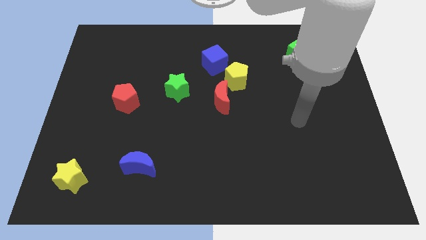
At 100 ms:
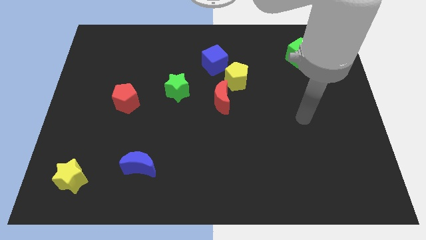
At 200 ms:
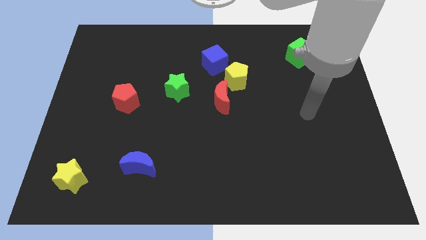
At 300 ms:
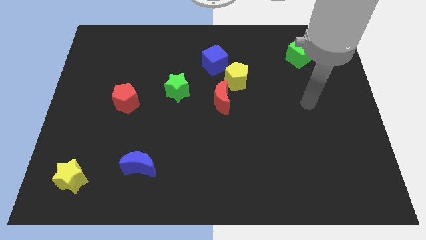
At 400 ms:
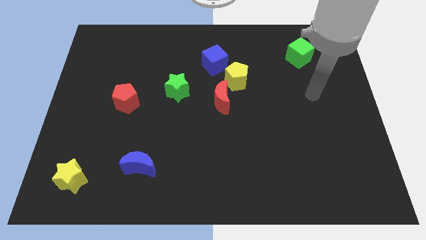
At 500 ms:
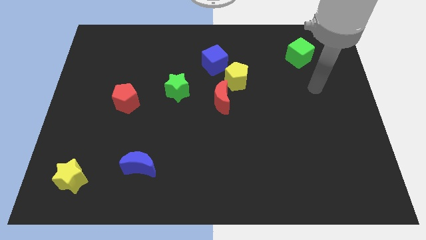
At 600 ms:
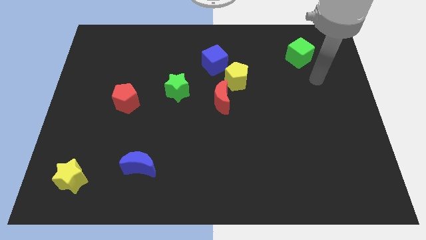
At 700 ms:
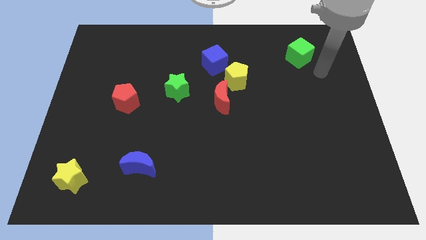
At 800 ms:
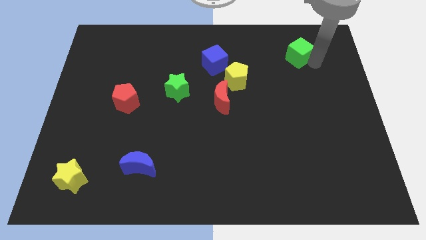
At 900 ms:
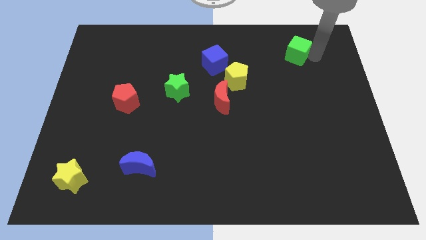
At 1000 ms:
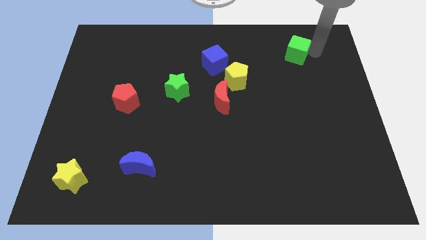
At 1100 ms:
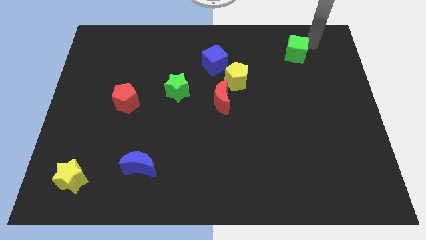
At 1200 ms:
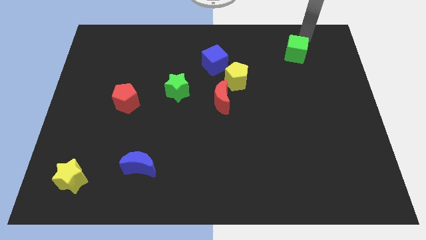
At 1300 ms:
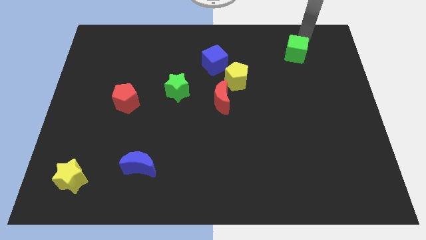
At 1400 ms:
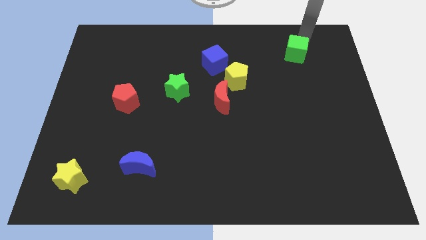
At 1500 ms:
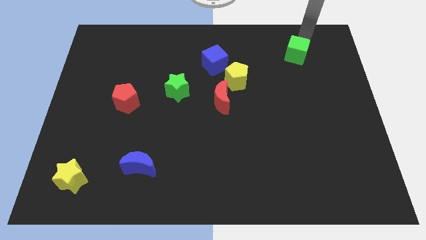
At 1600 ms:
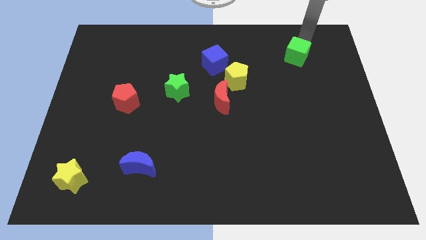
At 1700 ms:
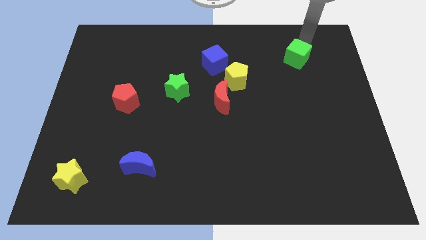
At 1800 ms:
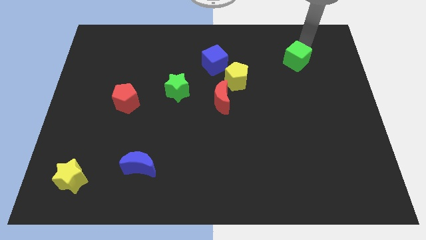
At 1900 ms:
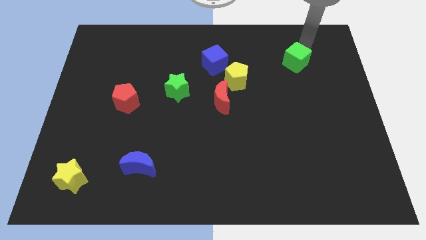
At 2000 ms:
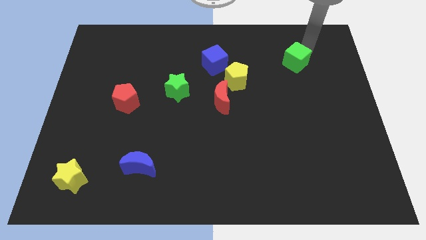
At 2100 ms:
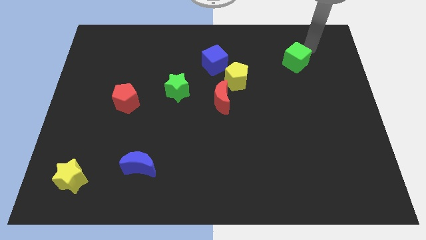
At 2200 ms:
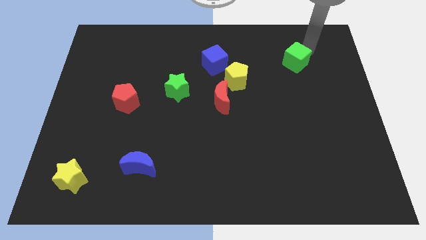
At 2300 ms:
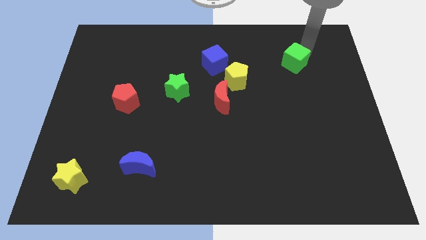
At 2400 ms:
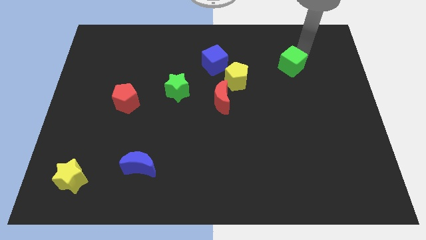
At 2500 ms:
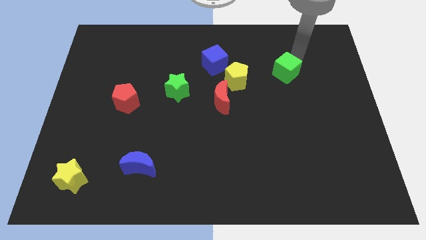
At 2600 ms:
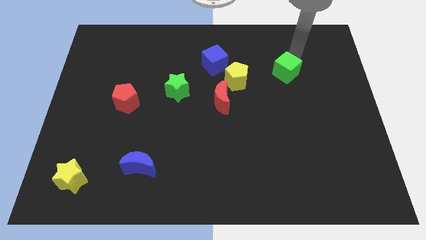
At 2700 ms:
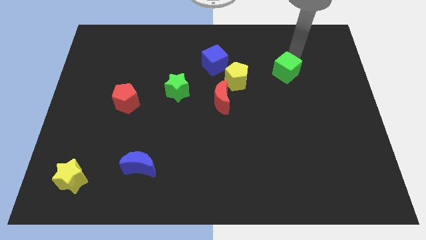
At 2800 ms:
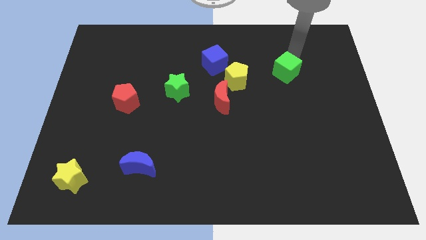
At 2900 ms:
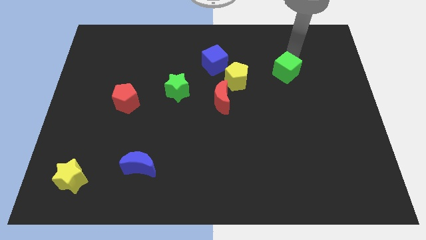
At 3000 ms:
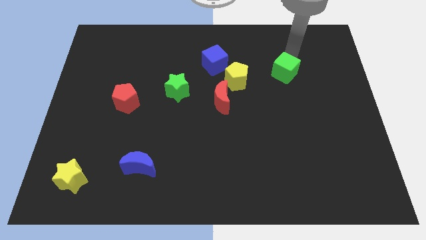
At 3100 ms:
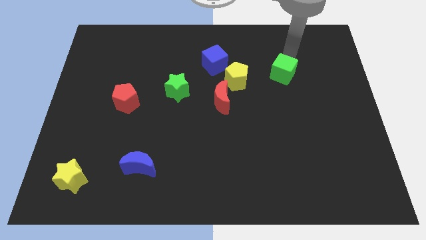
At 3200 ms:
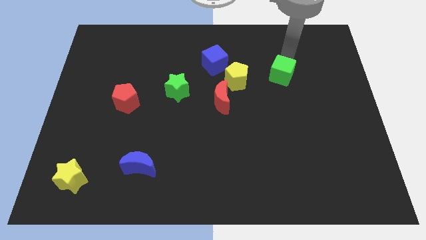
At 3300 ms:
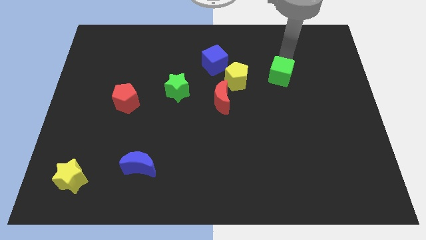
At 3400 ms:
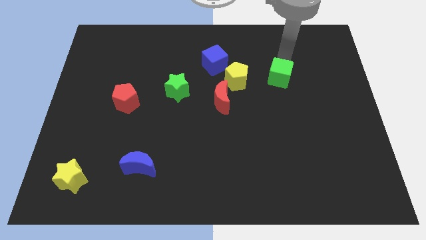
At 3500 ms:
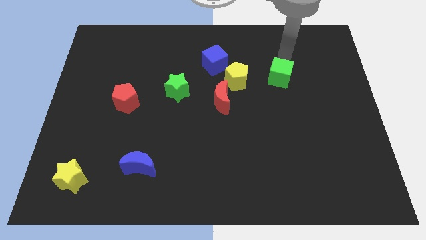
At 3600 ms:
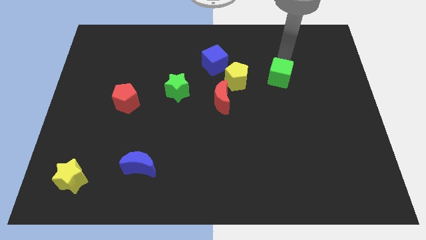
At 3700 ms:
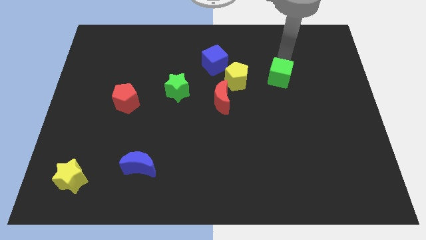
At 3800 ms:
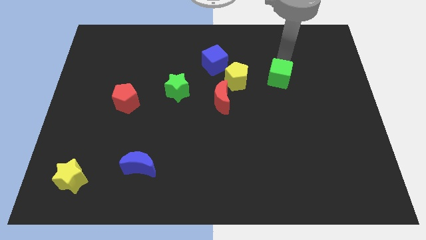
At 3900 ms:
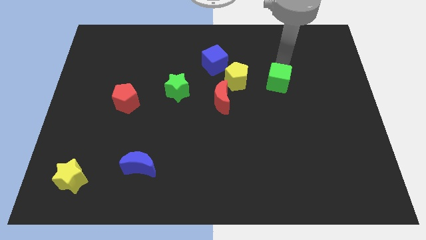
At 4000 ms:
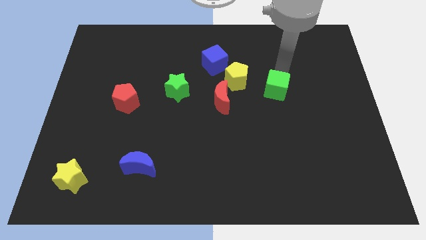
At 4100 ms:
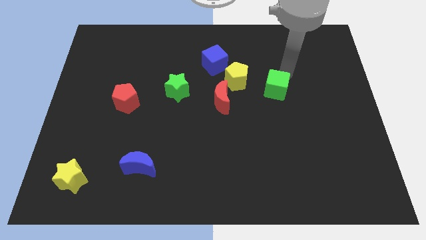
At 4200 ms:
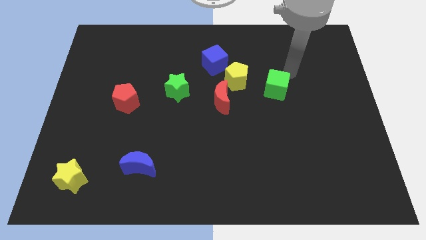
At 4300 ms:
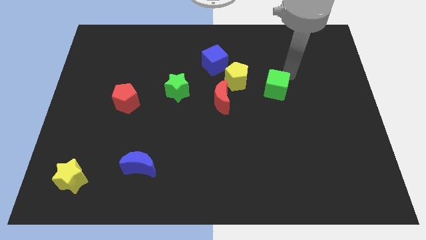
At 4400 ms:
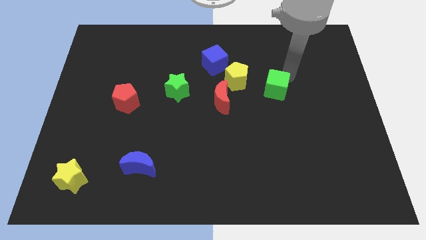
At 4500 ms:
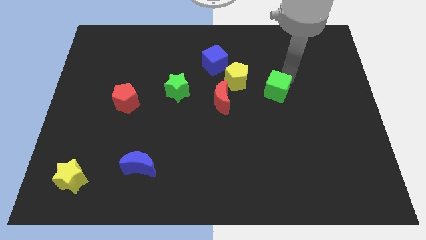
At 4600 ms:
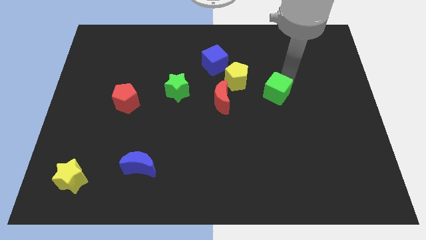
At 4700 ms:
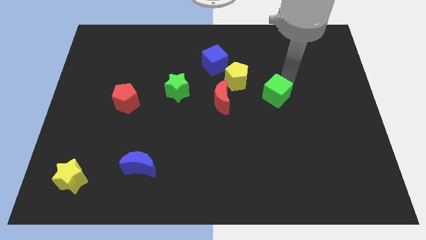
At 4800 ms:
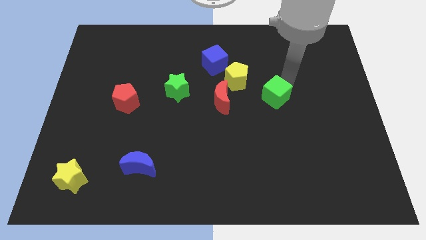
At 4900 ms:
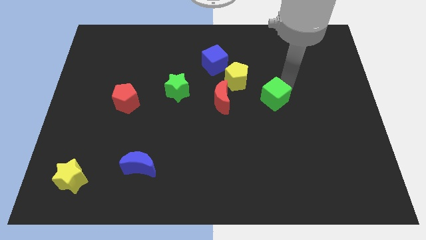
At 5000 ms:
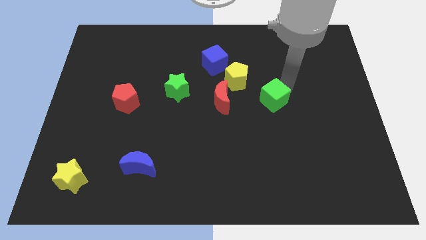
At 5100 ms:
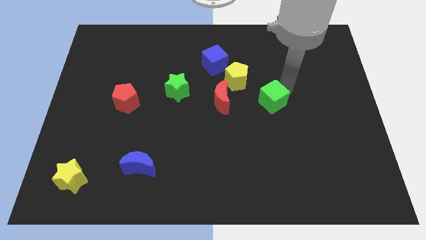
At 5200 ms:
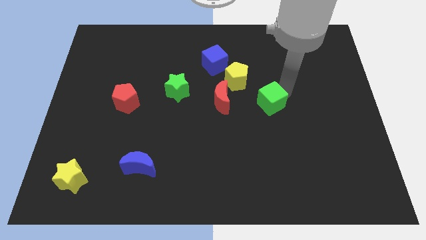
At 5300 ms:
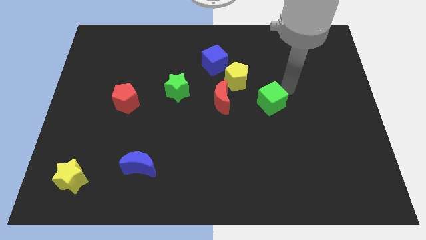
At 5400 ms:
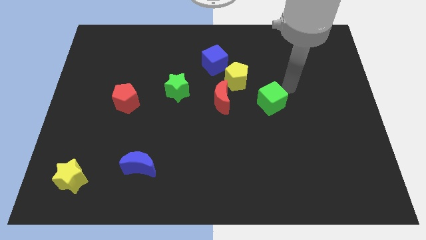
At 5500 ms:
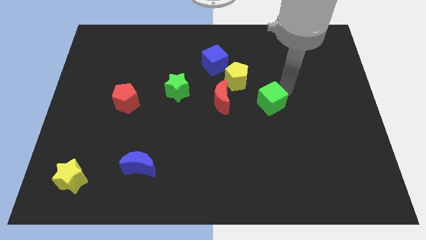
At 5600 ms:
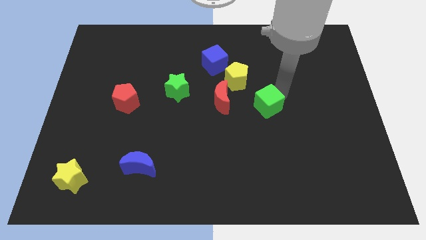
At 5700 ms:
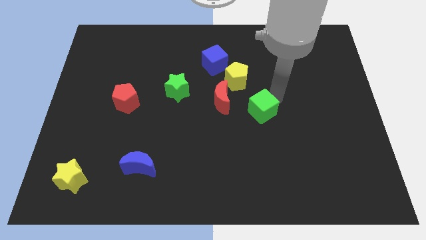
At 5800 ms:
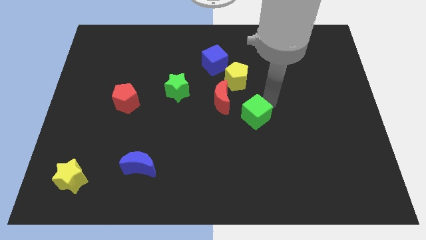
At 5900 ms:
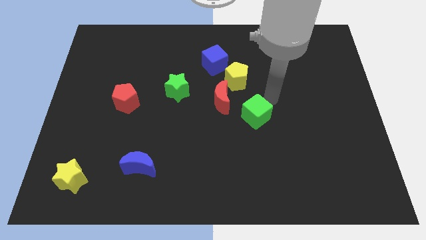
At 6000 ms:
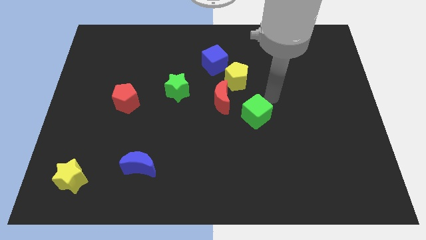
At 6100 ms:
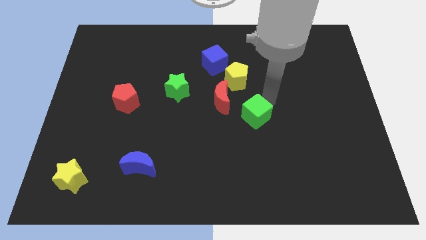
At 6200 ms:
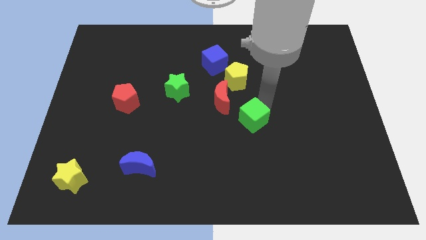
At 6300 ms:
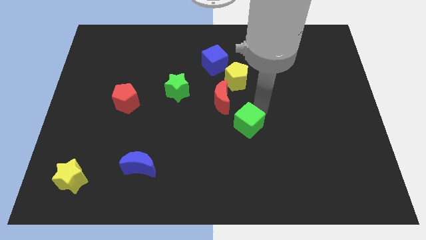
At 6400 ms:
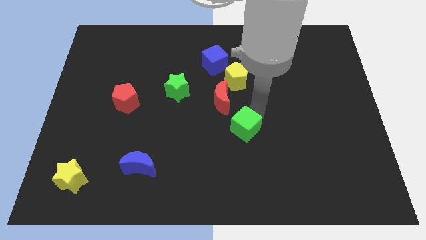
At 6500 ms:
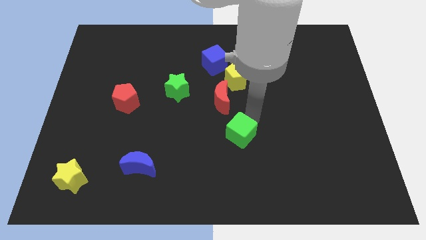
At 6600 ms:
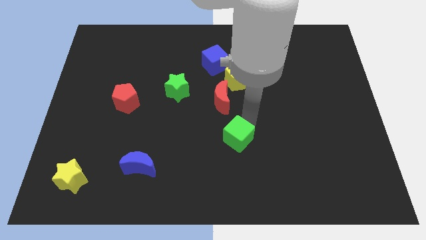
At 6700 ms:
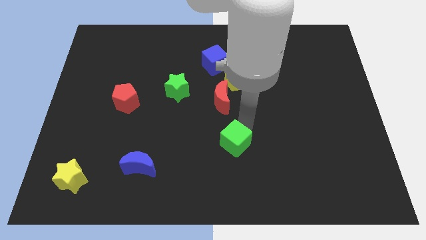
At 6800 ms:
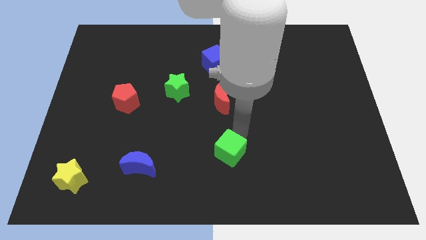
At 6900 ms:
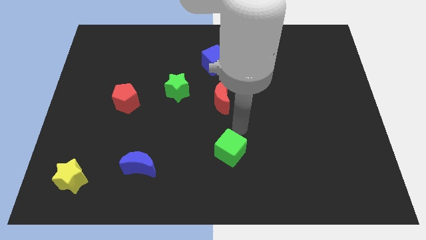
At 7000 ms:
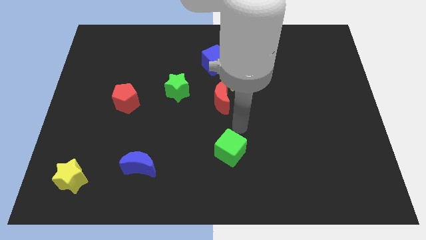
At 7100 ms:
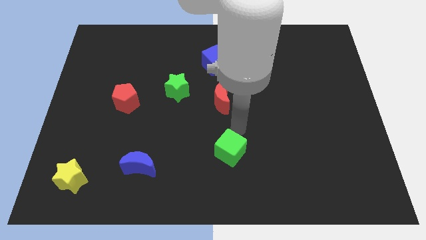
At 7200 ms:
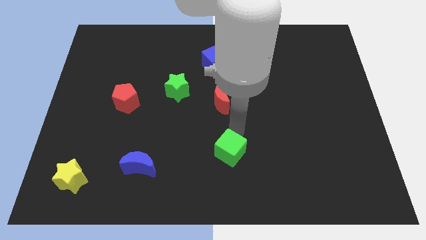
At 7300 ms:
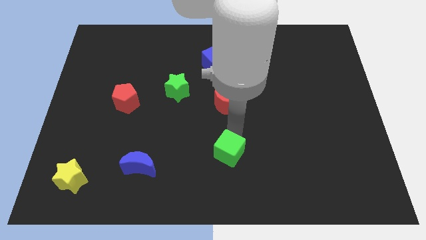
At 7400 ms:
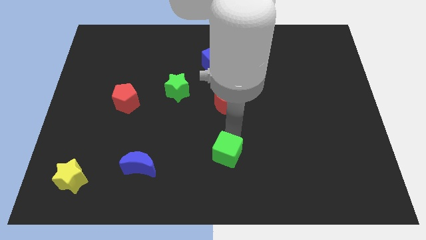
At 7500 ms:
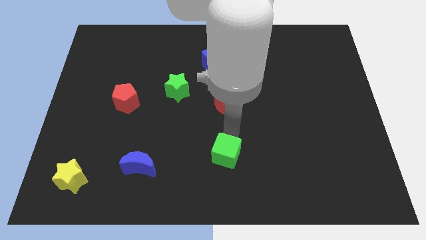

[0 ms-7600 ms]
slide the green cube to the bottom
